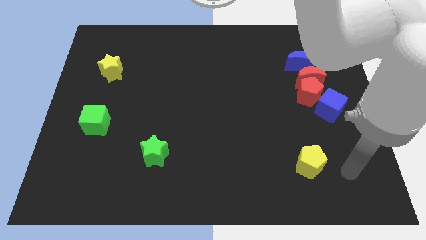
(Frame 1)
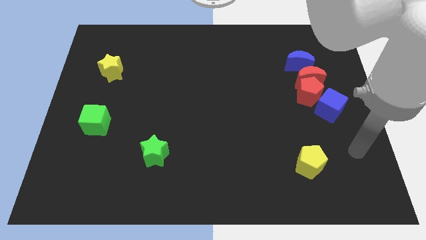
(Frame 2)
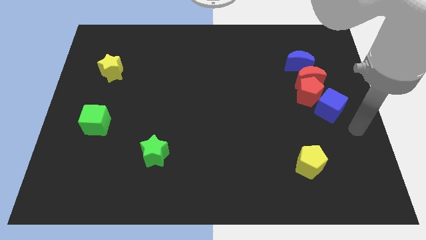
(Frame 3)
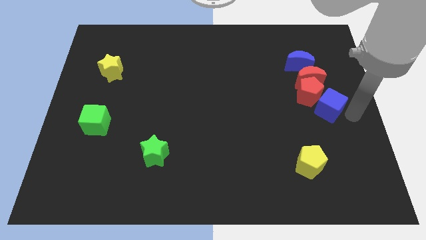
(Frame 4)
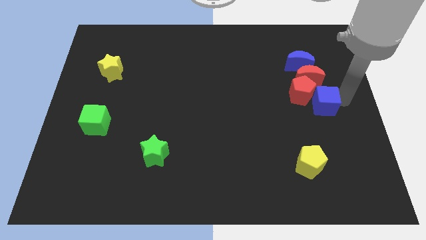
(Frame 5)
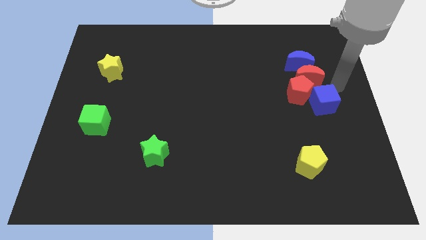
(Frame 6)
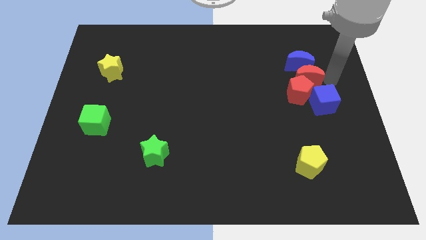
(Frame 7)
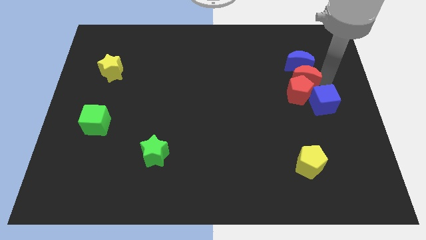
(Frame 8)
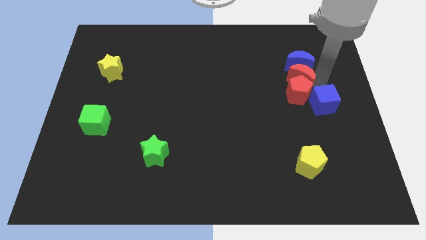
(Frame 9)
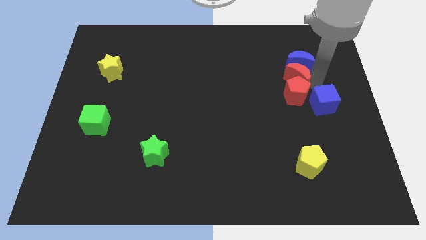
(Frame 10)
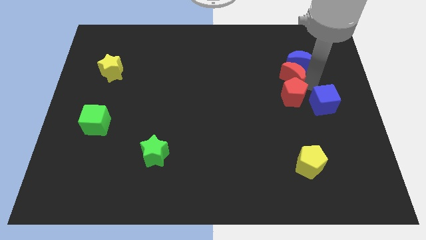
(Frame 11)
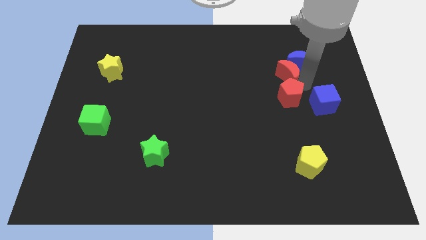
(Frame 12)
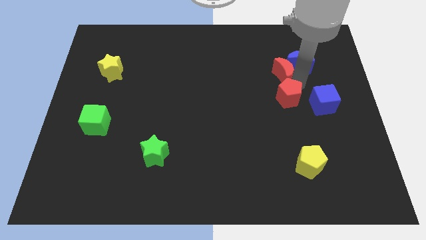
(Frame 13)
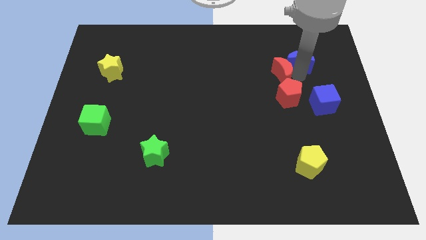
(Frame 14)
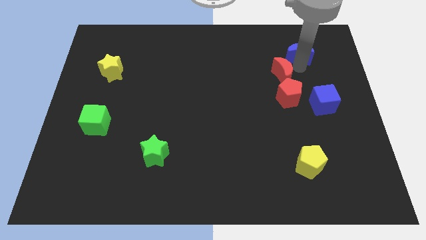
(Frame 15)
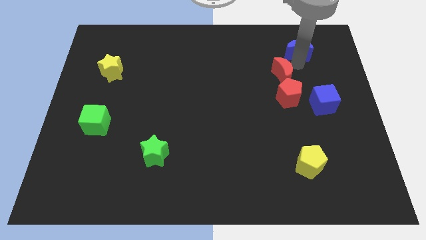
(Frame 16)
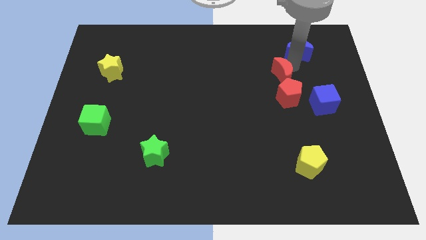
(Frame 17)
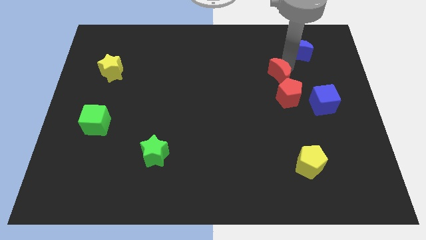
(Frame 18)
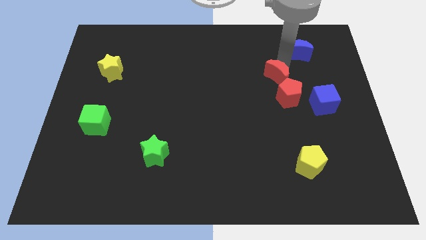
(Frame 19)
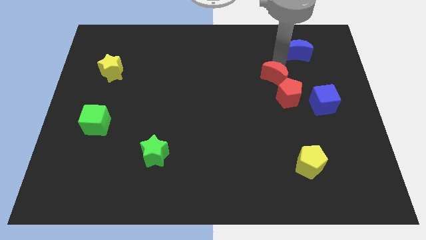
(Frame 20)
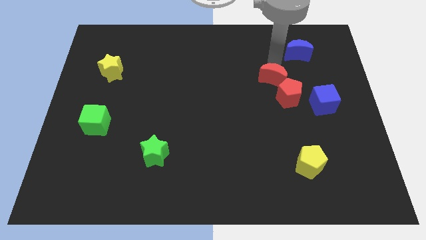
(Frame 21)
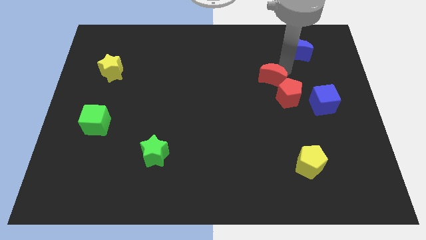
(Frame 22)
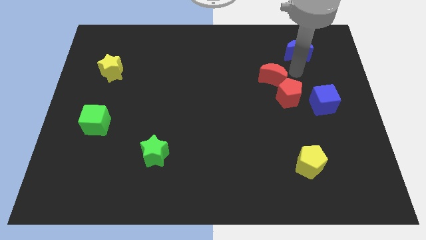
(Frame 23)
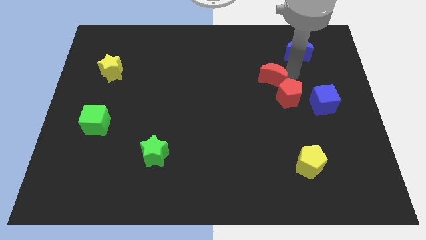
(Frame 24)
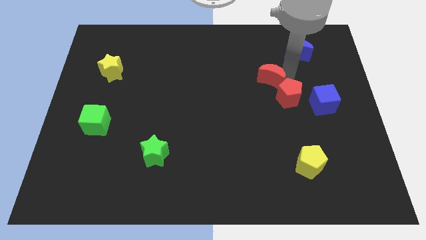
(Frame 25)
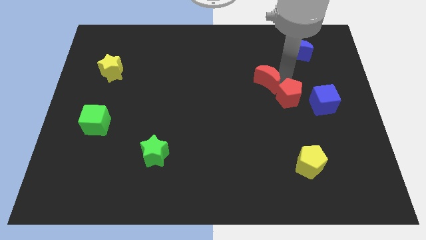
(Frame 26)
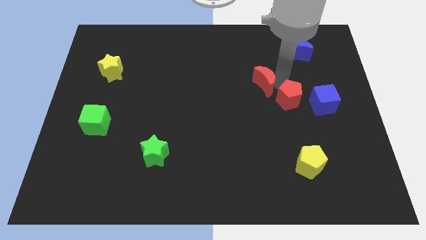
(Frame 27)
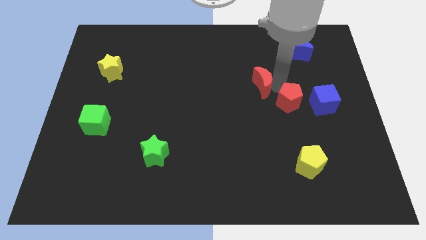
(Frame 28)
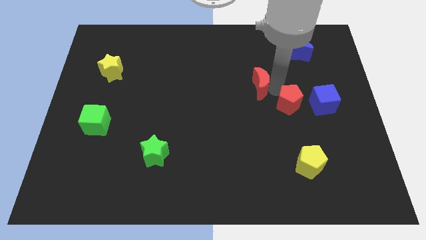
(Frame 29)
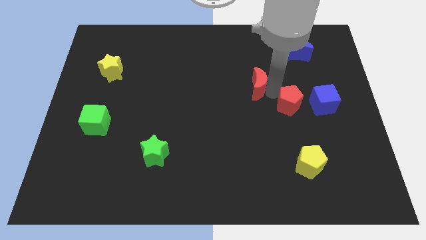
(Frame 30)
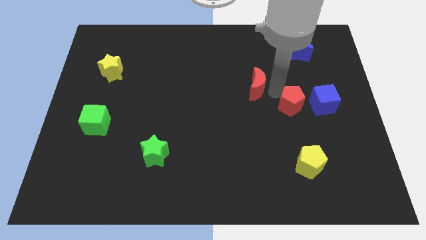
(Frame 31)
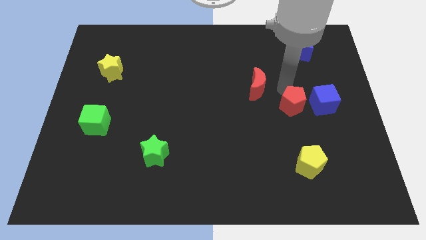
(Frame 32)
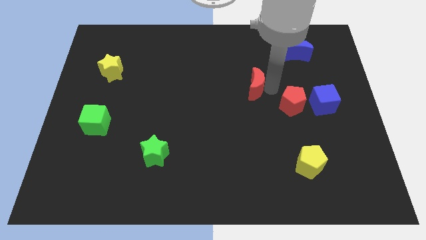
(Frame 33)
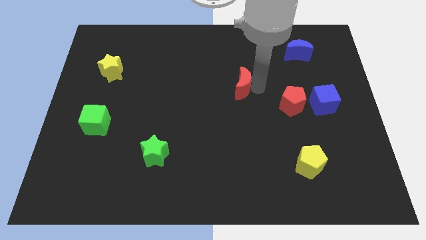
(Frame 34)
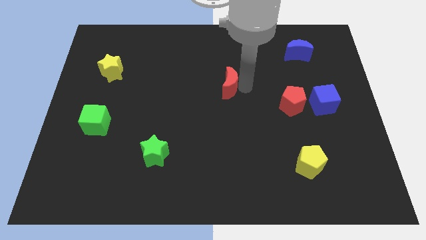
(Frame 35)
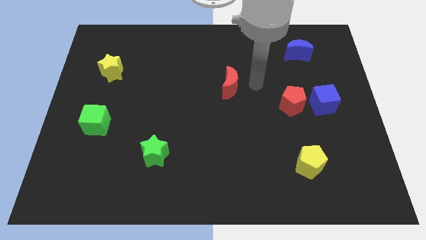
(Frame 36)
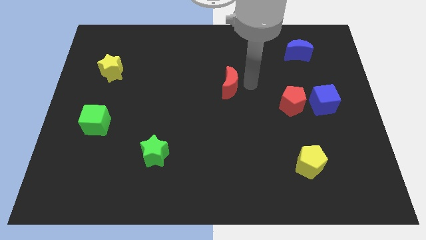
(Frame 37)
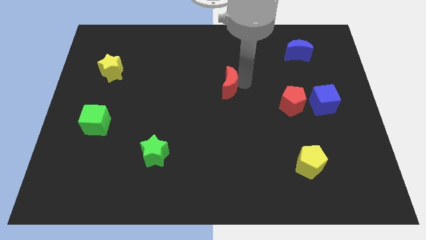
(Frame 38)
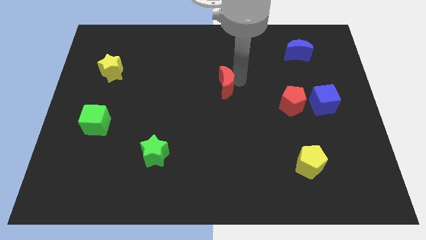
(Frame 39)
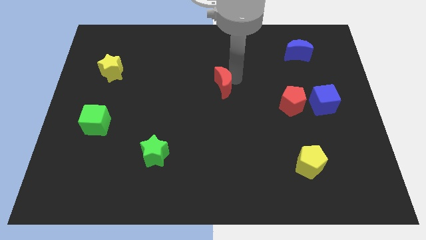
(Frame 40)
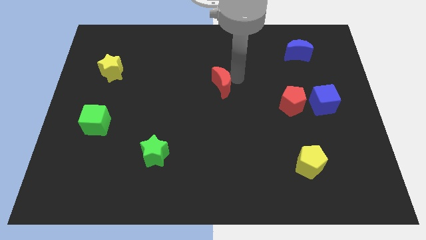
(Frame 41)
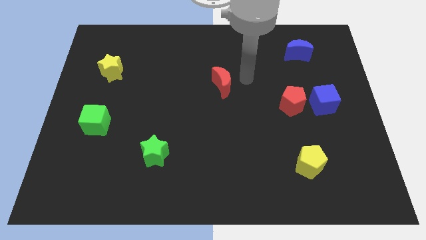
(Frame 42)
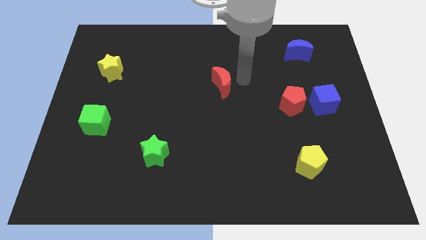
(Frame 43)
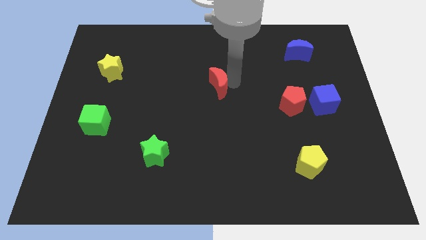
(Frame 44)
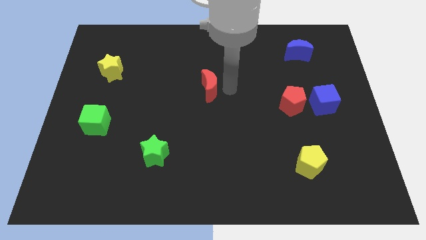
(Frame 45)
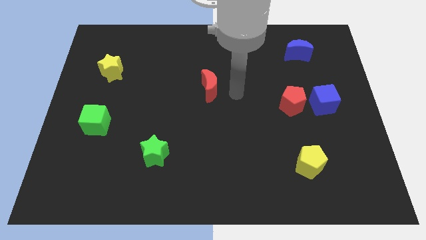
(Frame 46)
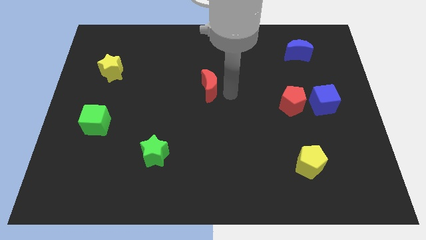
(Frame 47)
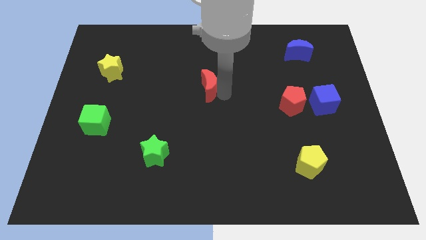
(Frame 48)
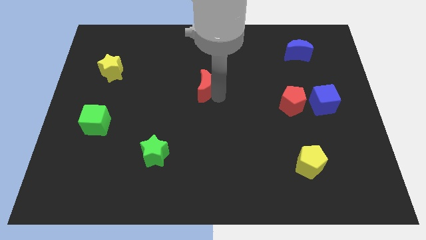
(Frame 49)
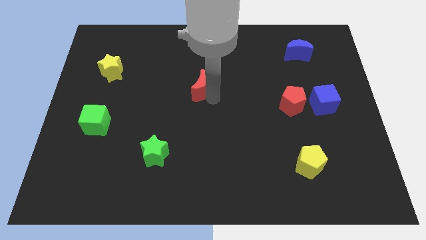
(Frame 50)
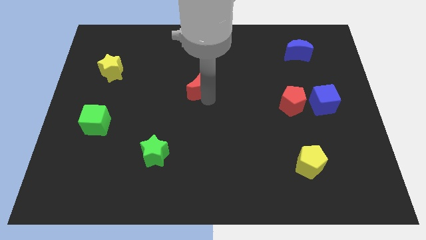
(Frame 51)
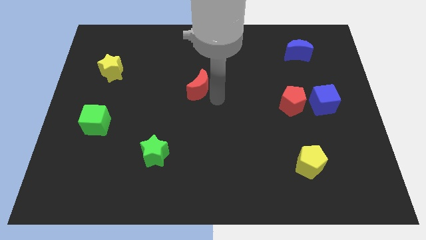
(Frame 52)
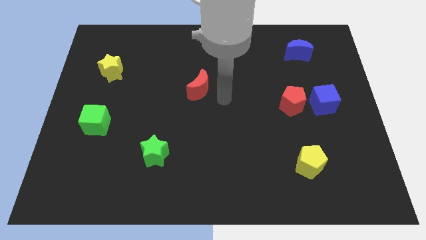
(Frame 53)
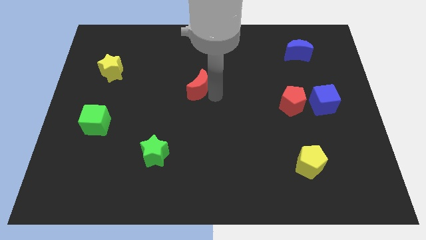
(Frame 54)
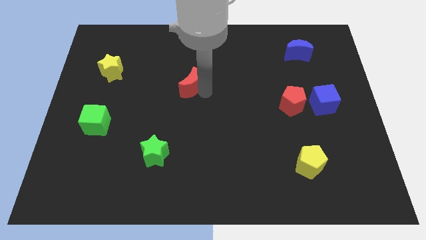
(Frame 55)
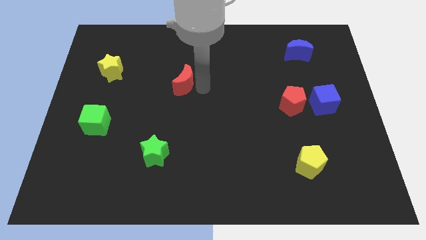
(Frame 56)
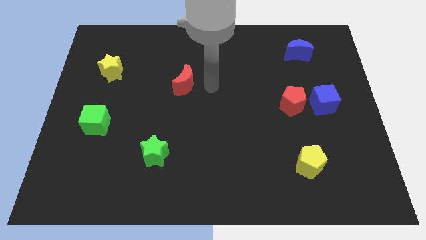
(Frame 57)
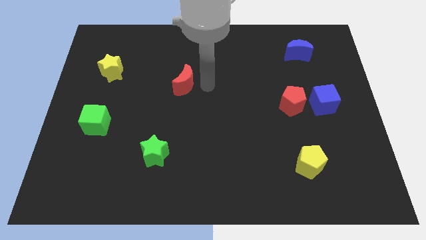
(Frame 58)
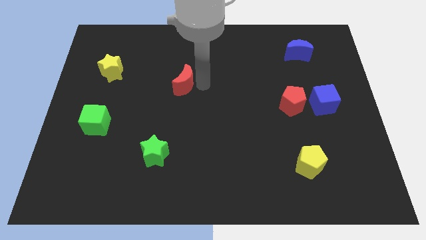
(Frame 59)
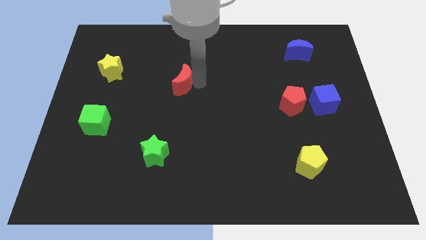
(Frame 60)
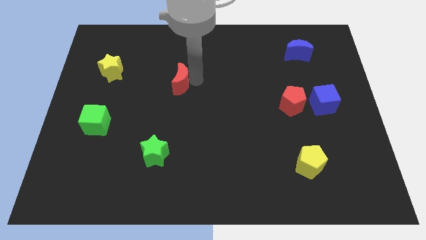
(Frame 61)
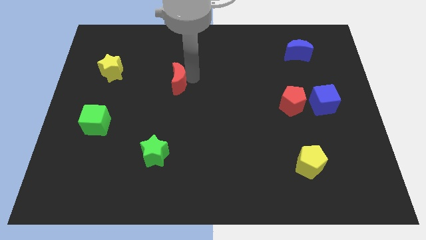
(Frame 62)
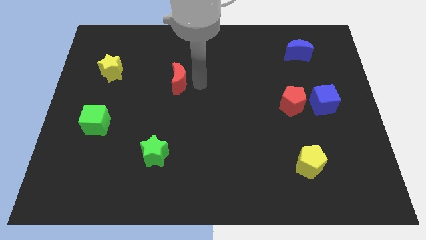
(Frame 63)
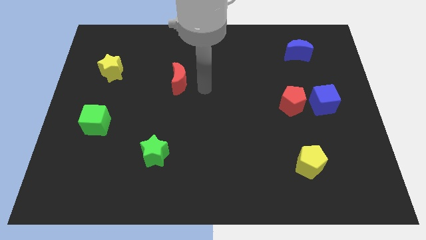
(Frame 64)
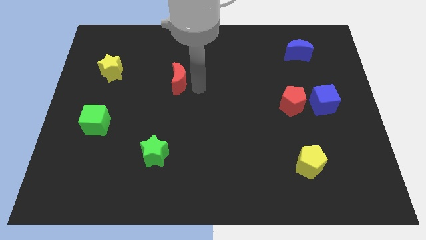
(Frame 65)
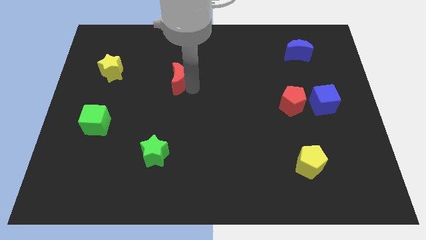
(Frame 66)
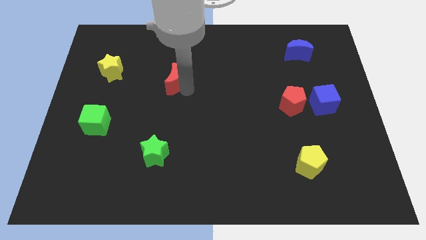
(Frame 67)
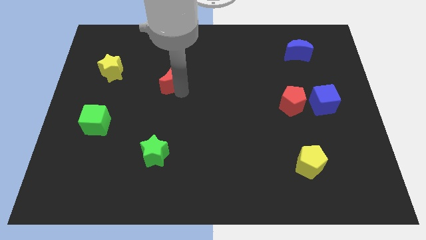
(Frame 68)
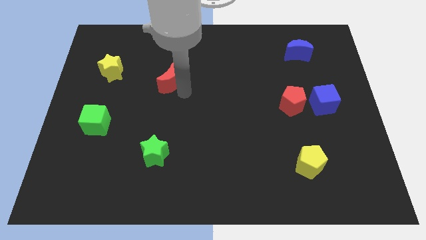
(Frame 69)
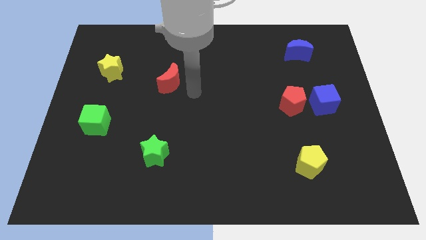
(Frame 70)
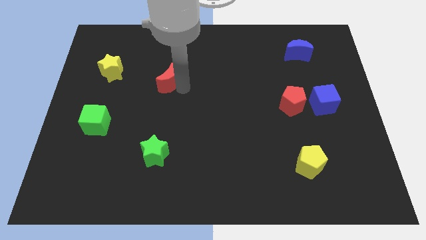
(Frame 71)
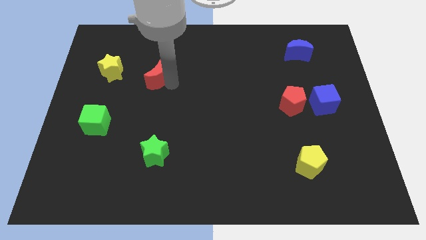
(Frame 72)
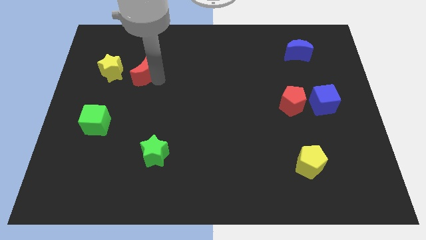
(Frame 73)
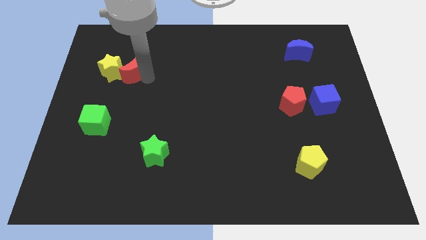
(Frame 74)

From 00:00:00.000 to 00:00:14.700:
push the red moon next to the yellow star

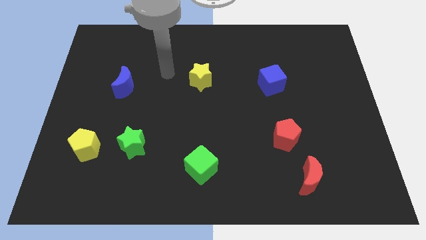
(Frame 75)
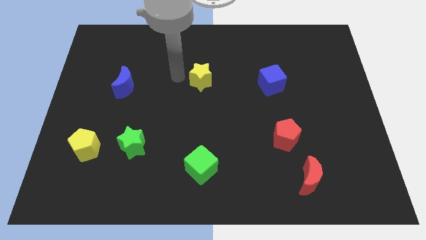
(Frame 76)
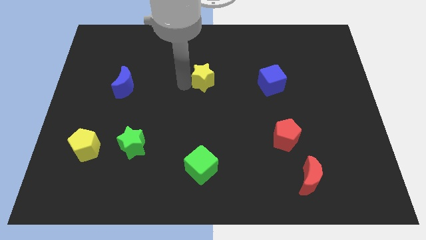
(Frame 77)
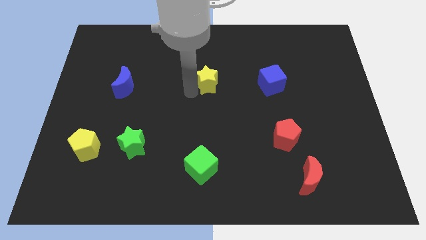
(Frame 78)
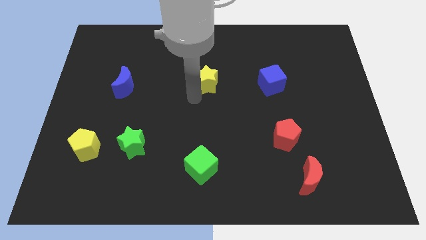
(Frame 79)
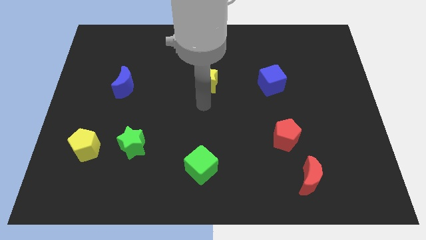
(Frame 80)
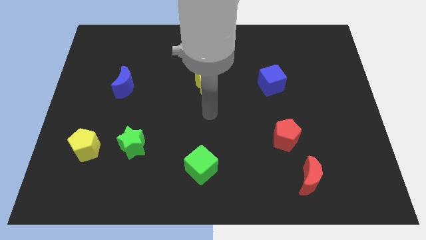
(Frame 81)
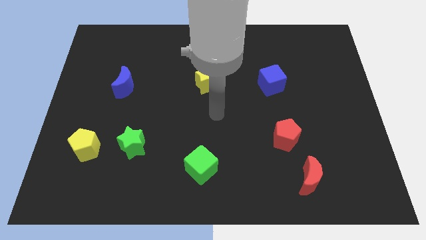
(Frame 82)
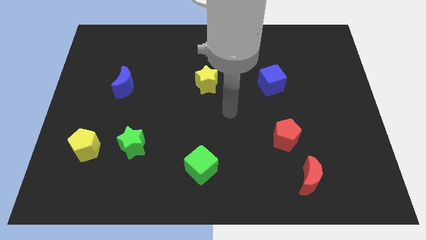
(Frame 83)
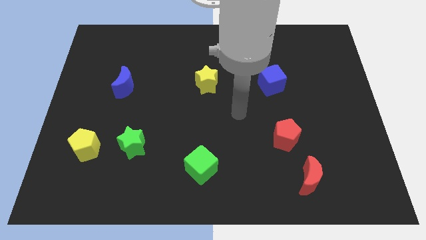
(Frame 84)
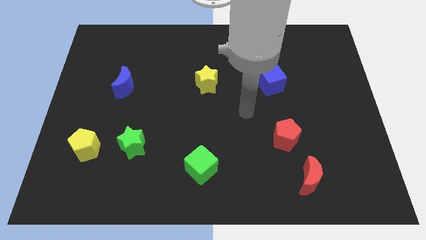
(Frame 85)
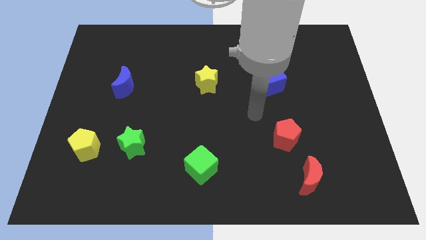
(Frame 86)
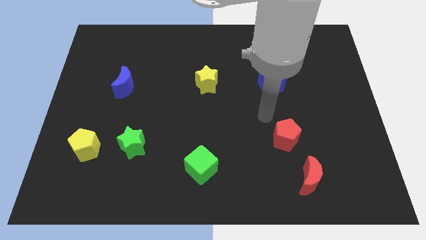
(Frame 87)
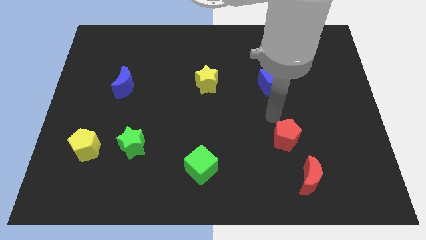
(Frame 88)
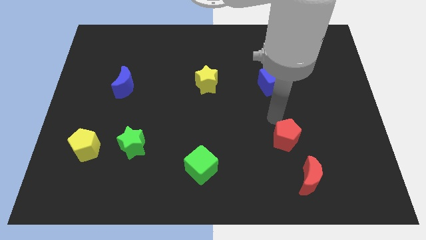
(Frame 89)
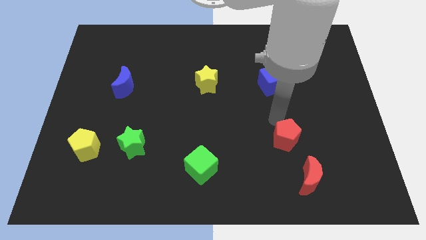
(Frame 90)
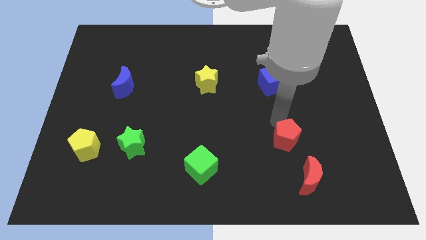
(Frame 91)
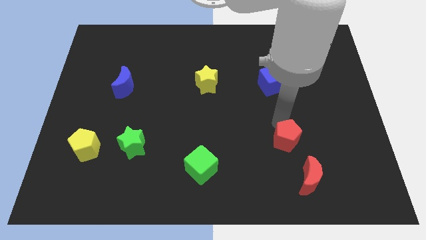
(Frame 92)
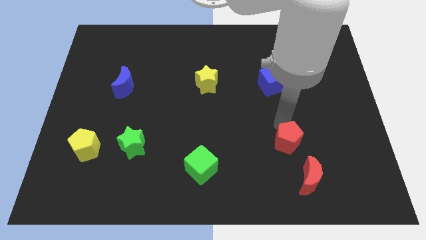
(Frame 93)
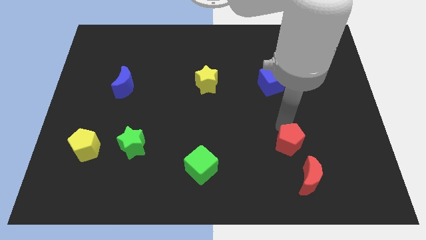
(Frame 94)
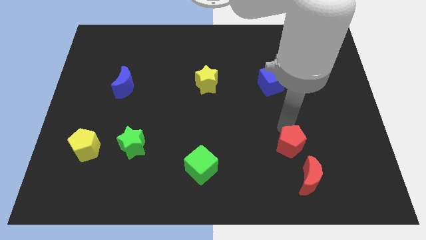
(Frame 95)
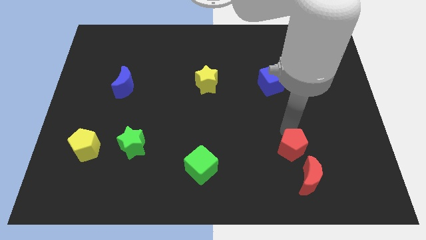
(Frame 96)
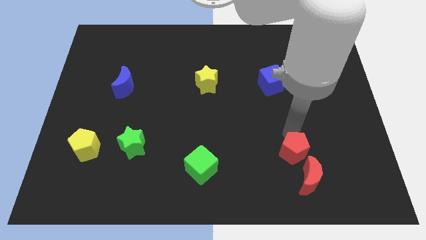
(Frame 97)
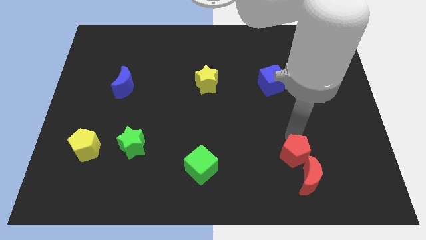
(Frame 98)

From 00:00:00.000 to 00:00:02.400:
move the red pentagon towards the red moon
